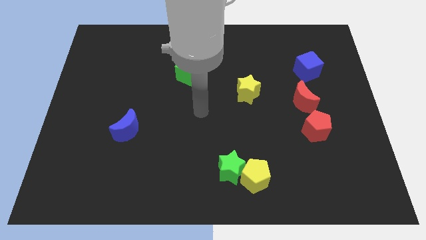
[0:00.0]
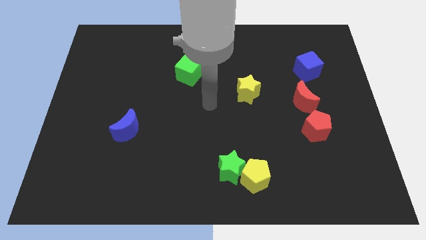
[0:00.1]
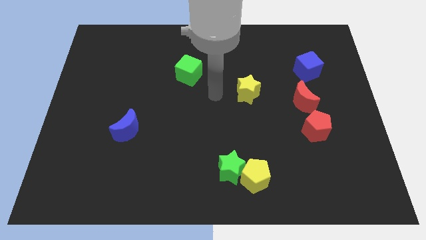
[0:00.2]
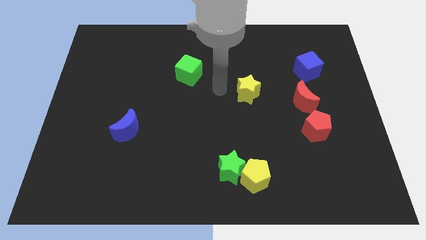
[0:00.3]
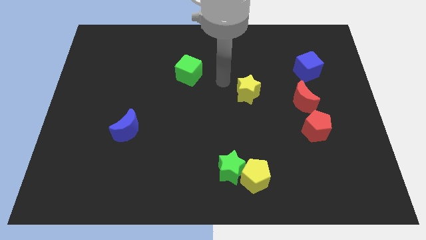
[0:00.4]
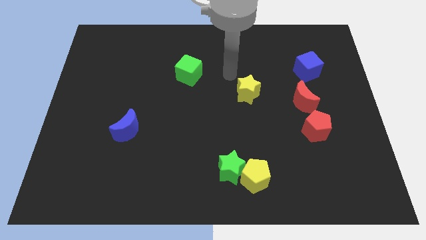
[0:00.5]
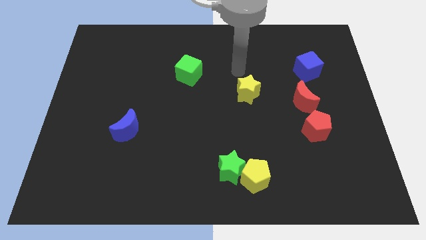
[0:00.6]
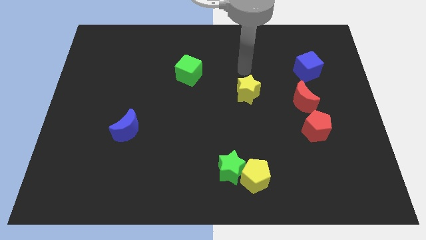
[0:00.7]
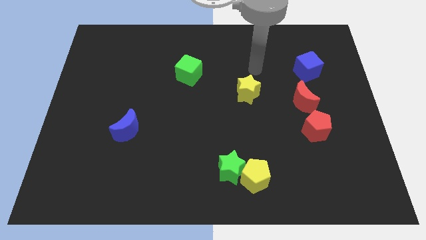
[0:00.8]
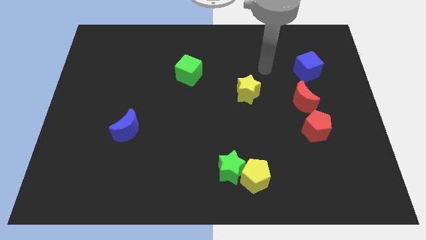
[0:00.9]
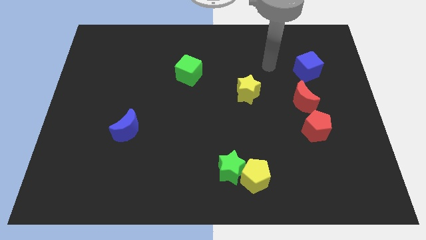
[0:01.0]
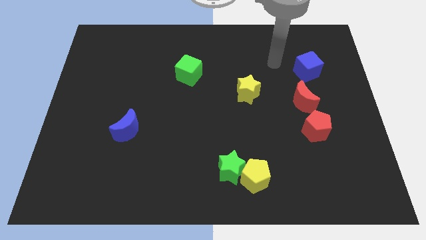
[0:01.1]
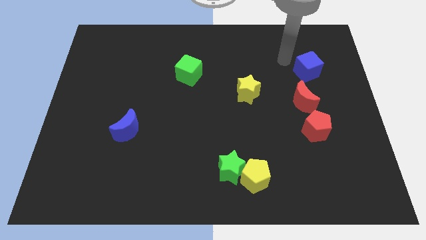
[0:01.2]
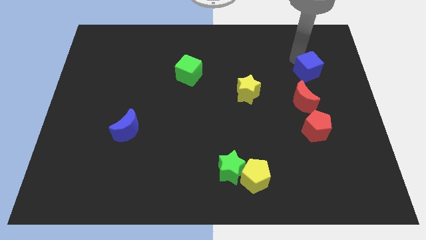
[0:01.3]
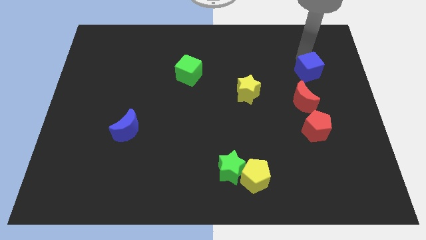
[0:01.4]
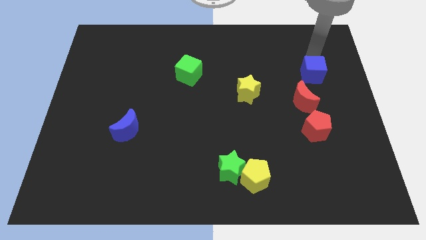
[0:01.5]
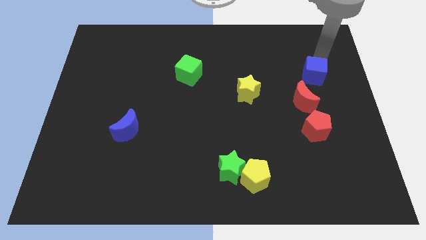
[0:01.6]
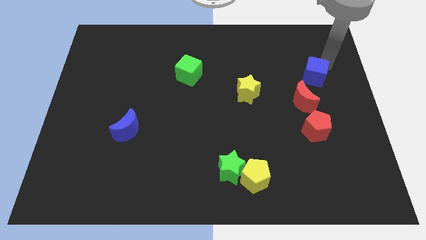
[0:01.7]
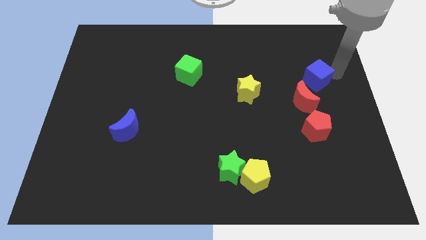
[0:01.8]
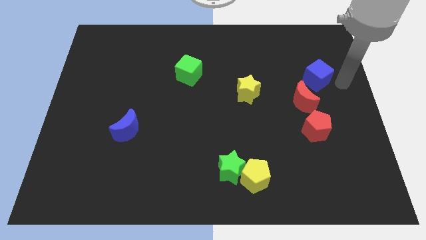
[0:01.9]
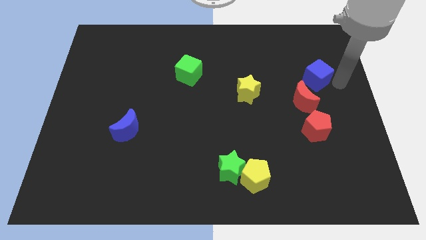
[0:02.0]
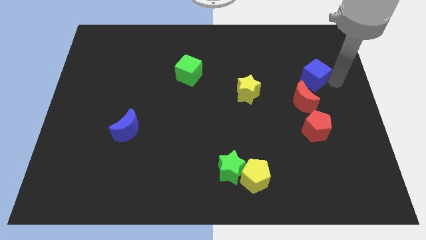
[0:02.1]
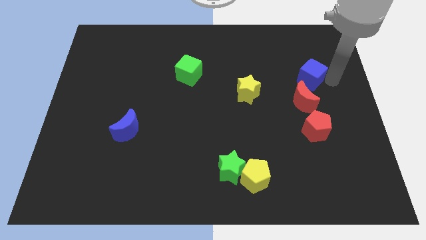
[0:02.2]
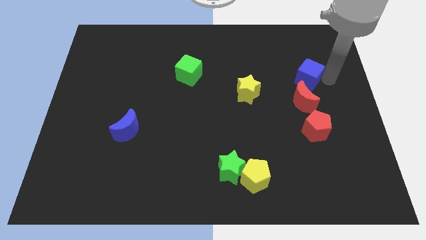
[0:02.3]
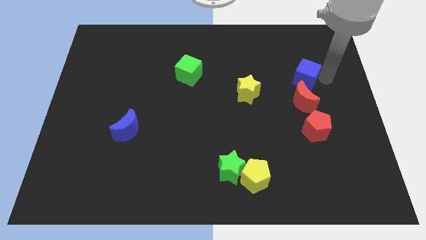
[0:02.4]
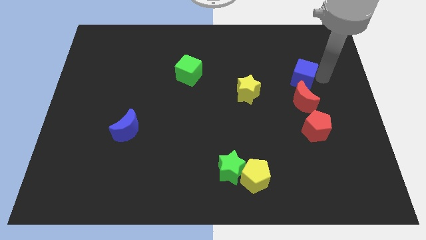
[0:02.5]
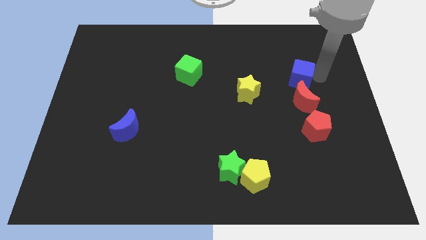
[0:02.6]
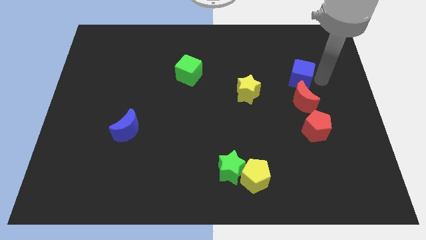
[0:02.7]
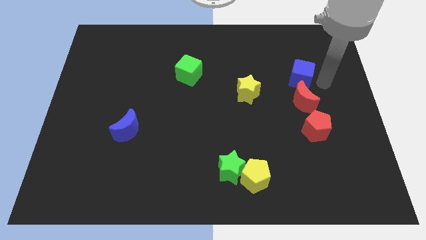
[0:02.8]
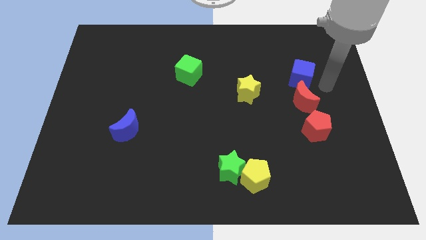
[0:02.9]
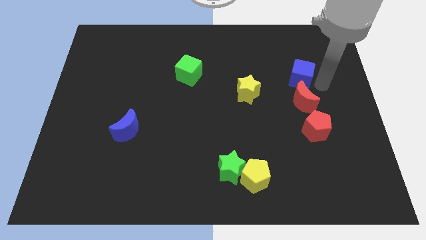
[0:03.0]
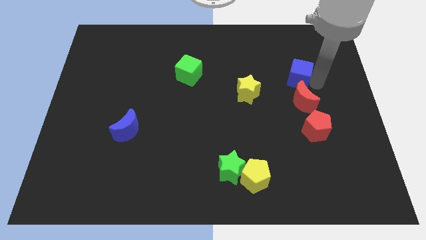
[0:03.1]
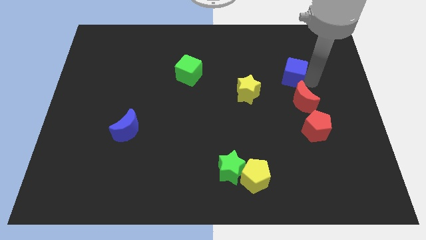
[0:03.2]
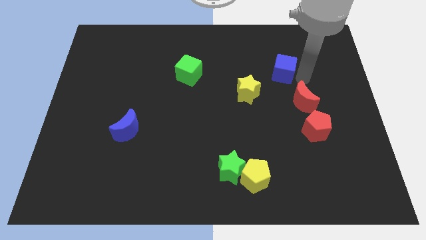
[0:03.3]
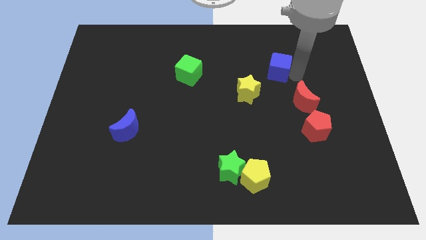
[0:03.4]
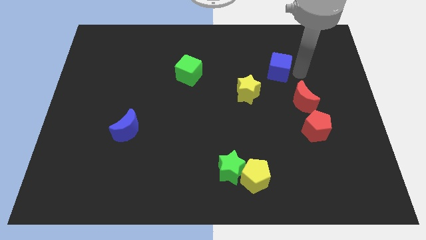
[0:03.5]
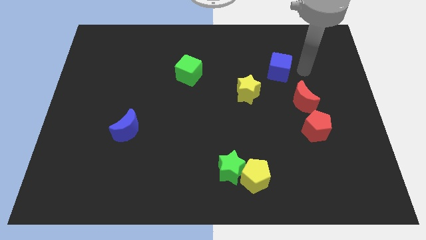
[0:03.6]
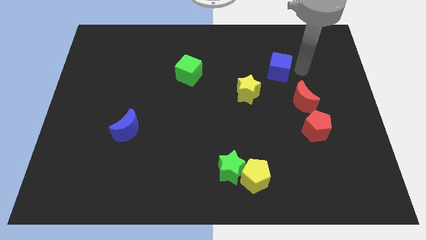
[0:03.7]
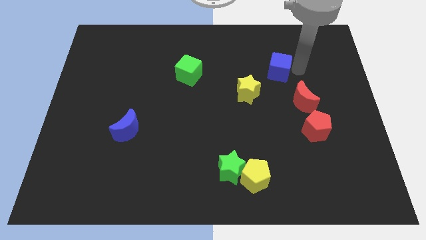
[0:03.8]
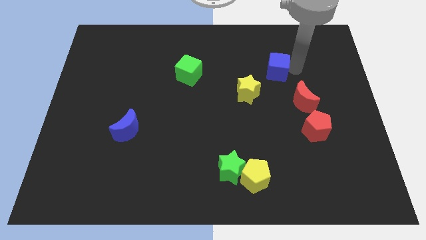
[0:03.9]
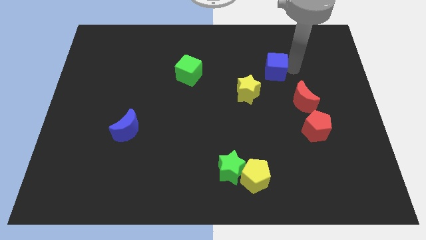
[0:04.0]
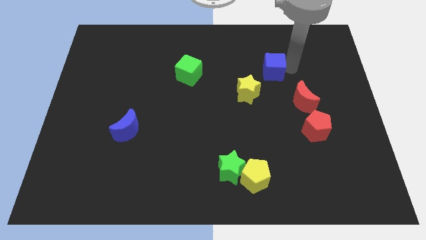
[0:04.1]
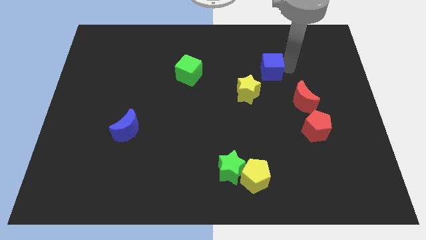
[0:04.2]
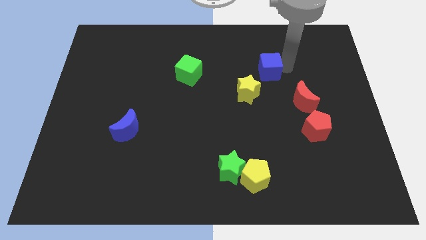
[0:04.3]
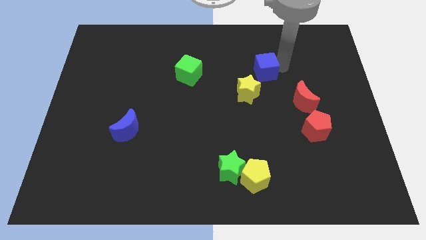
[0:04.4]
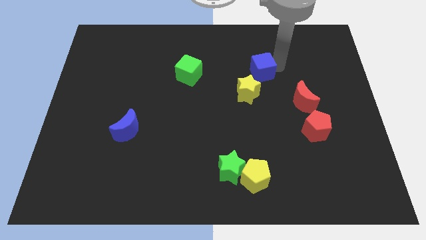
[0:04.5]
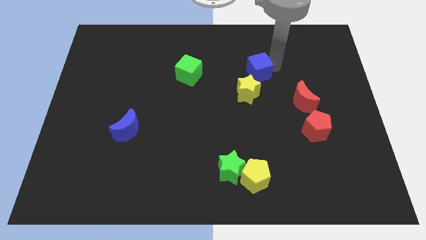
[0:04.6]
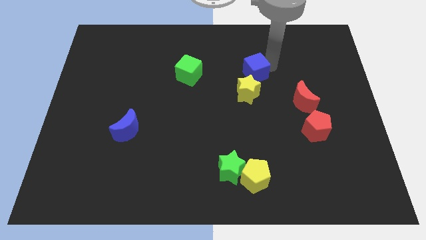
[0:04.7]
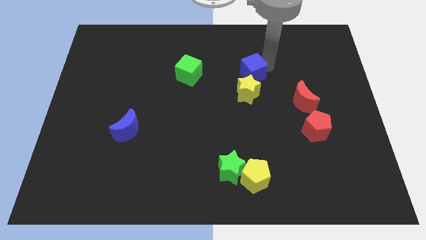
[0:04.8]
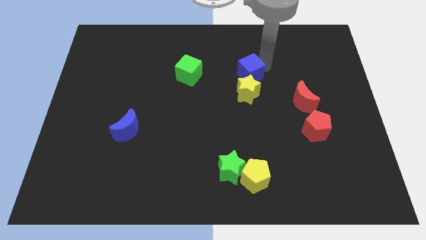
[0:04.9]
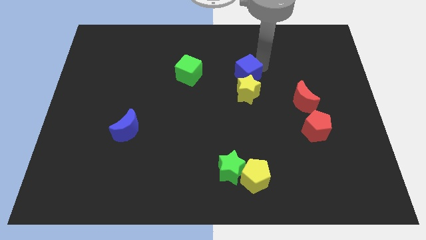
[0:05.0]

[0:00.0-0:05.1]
put the blue cube to the center

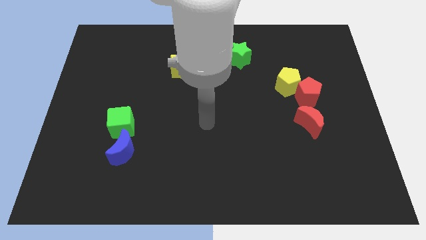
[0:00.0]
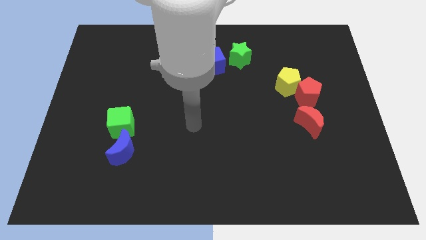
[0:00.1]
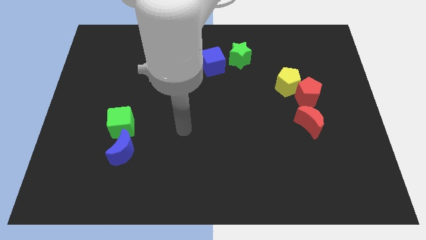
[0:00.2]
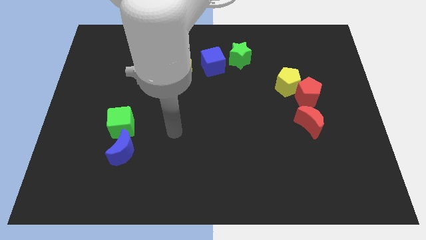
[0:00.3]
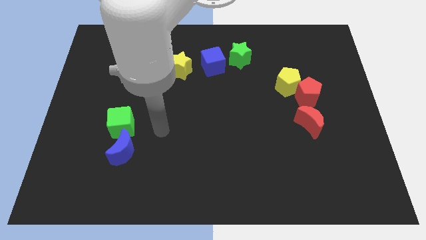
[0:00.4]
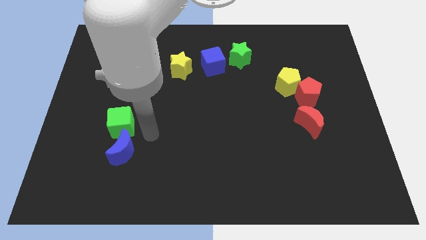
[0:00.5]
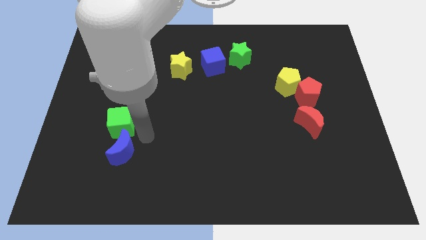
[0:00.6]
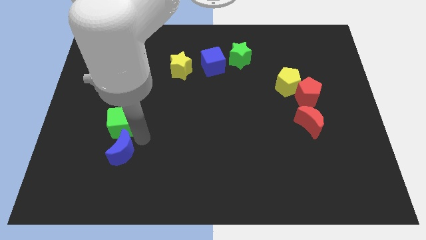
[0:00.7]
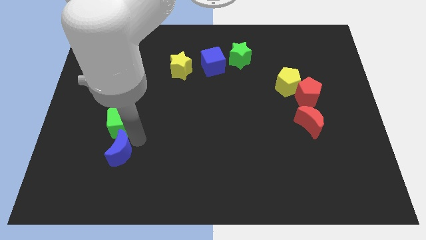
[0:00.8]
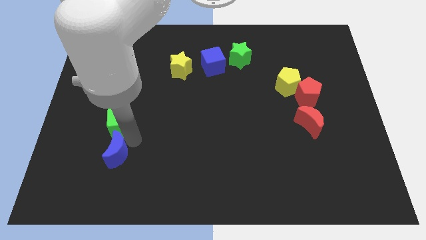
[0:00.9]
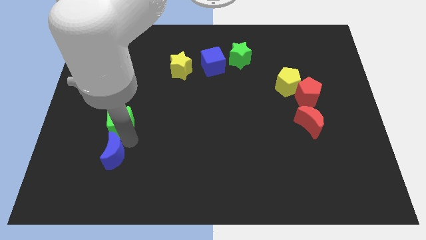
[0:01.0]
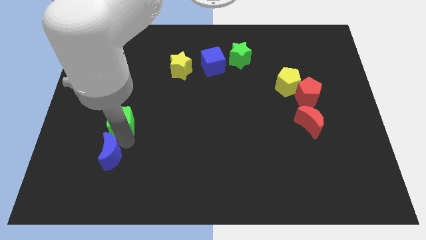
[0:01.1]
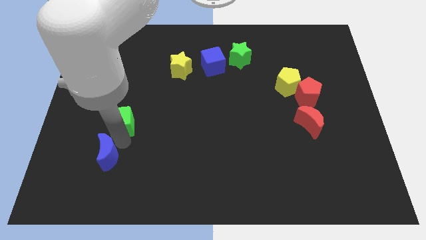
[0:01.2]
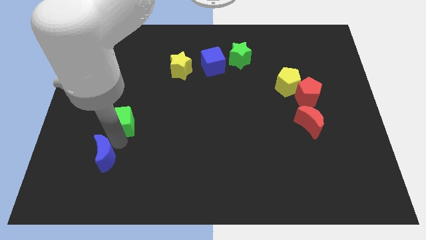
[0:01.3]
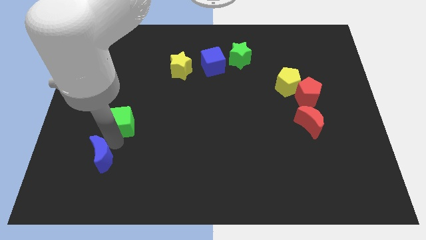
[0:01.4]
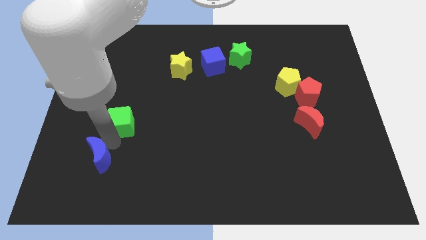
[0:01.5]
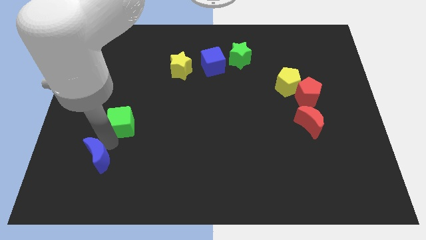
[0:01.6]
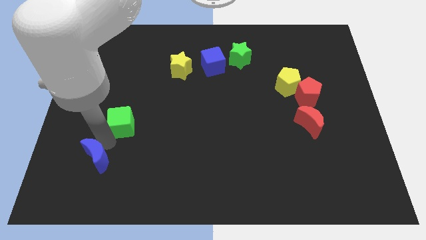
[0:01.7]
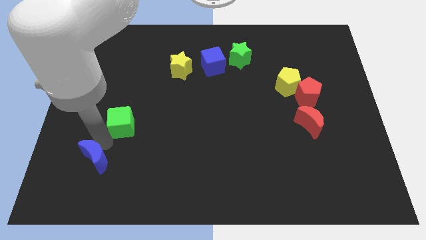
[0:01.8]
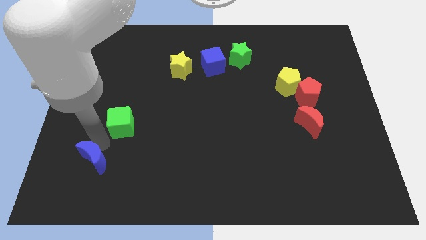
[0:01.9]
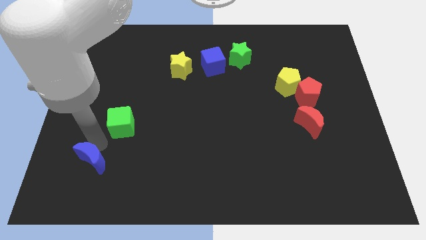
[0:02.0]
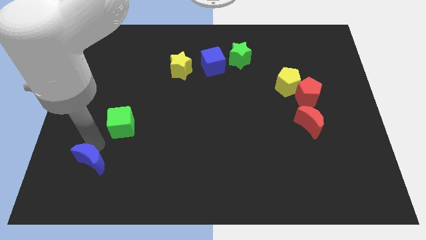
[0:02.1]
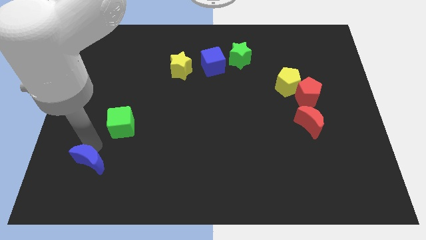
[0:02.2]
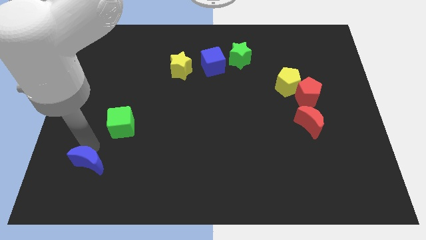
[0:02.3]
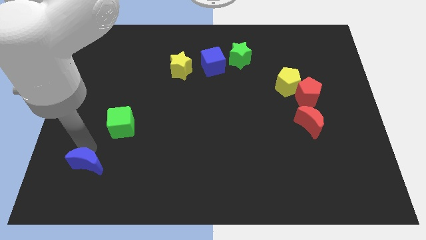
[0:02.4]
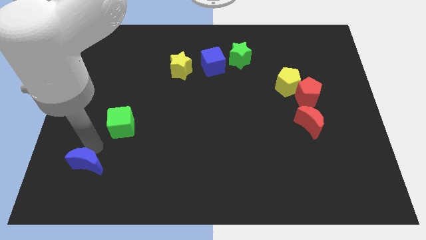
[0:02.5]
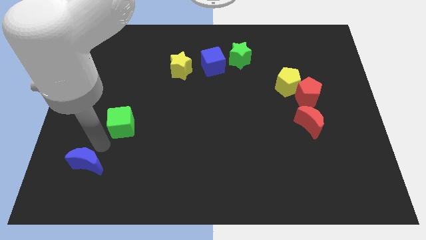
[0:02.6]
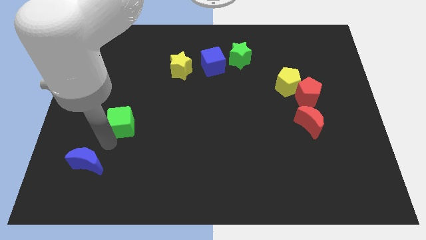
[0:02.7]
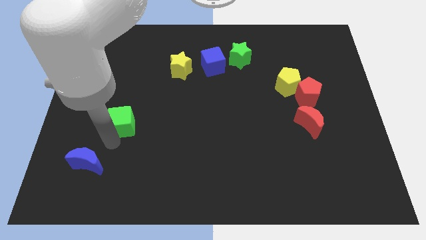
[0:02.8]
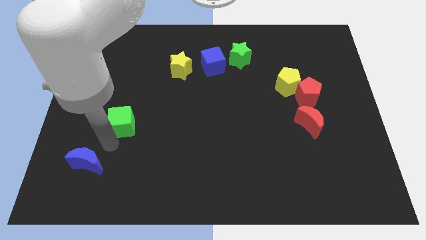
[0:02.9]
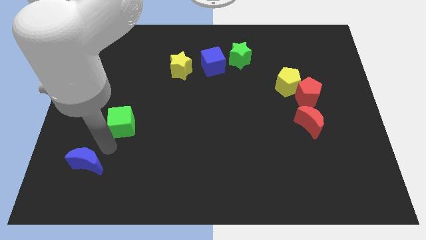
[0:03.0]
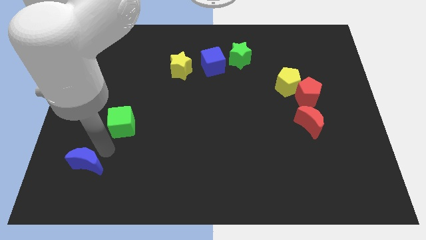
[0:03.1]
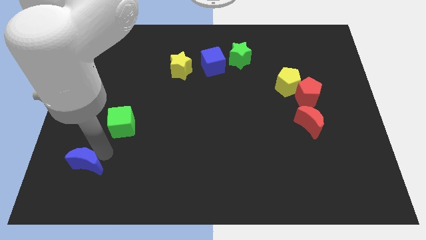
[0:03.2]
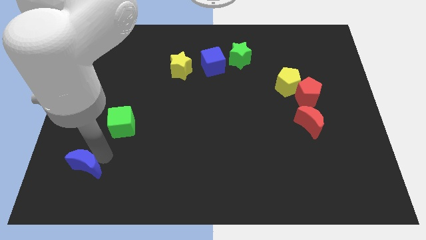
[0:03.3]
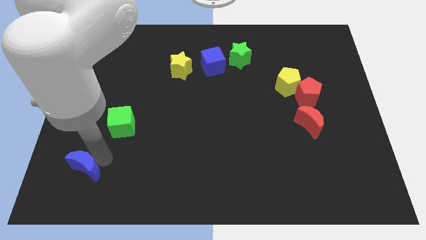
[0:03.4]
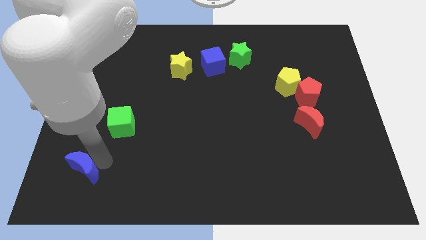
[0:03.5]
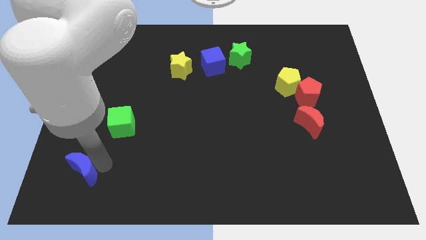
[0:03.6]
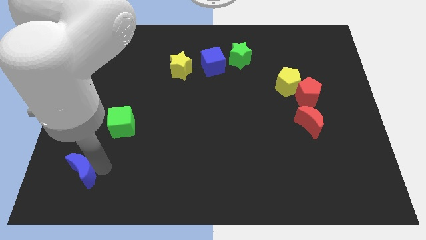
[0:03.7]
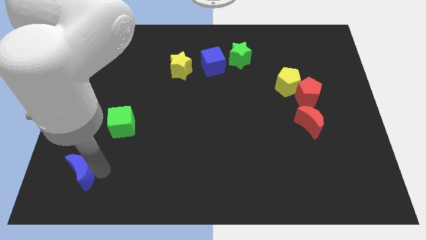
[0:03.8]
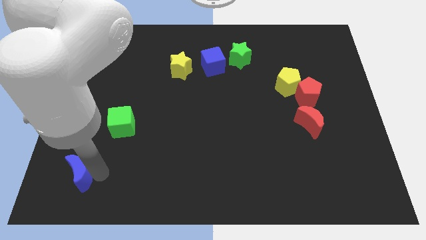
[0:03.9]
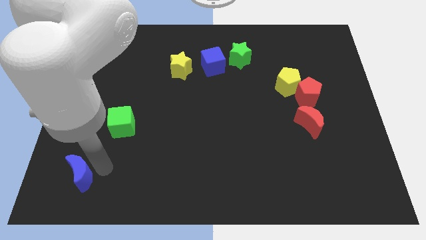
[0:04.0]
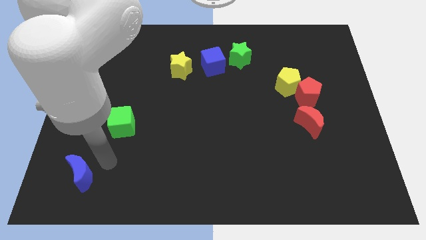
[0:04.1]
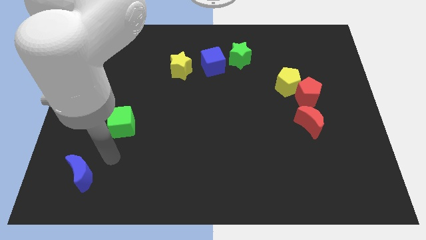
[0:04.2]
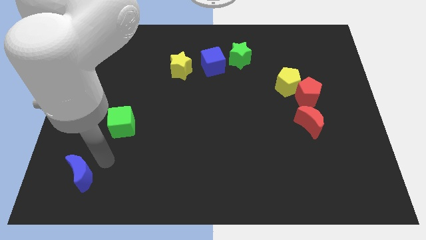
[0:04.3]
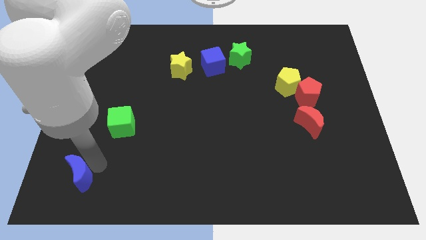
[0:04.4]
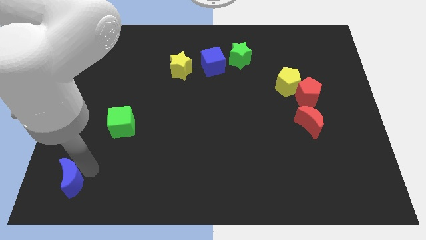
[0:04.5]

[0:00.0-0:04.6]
slide the blue moon to the bottom left
